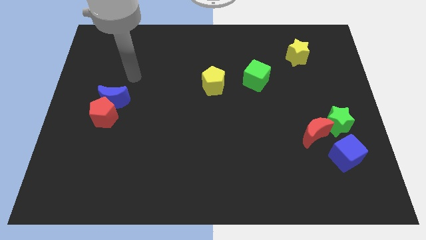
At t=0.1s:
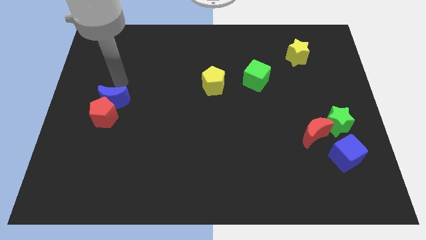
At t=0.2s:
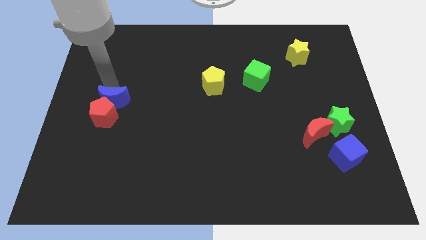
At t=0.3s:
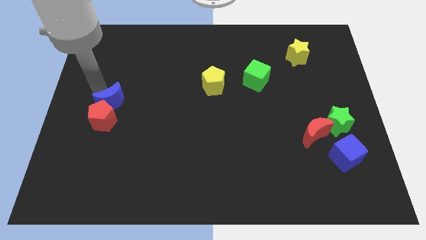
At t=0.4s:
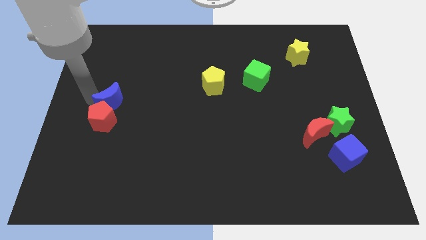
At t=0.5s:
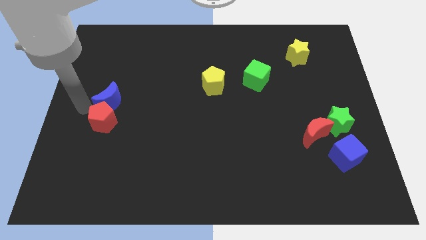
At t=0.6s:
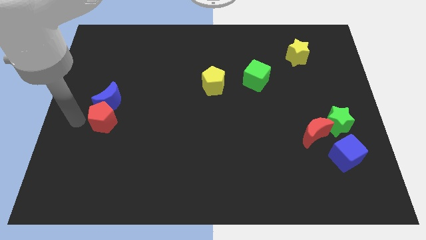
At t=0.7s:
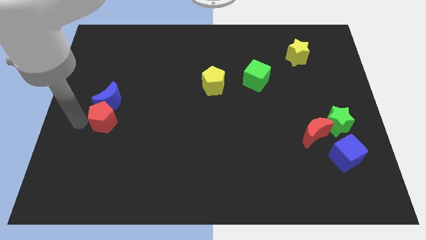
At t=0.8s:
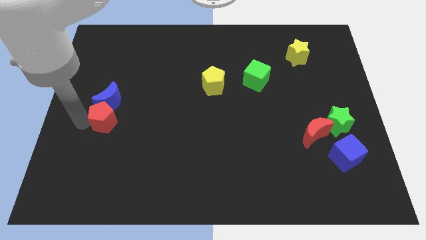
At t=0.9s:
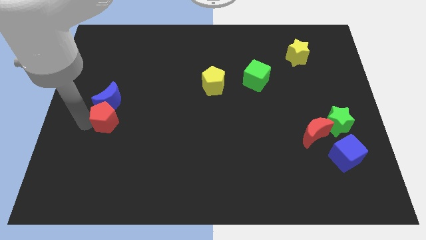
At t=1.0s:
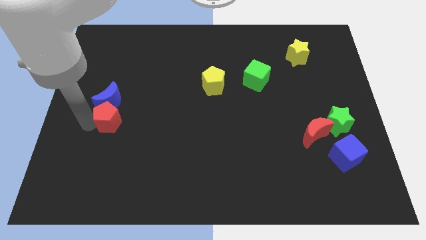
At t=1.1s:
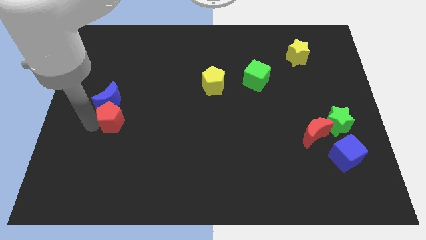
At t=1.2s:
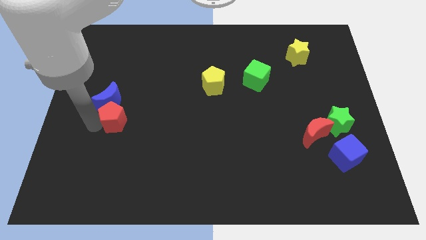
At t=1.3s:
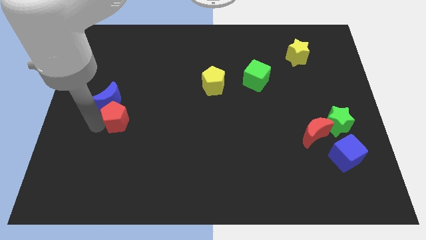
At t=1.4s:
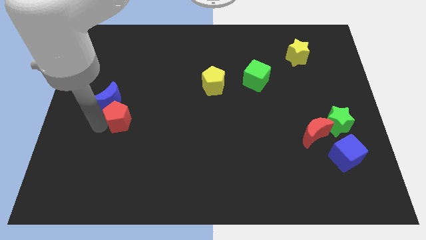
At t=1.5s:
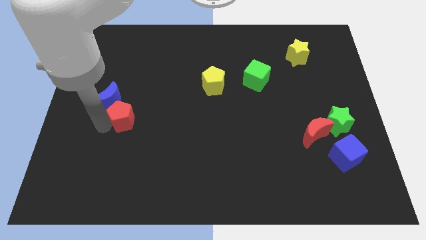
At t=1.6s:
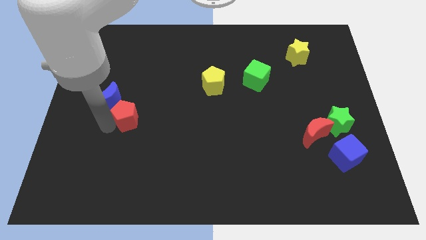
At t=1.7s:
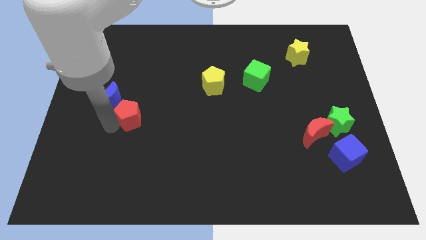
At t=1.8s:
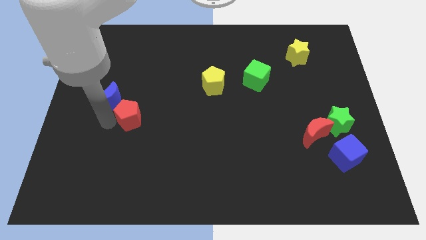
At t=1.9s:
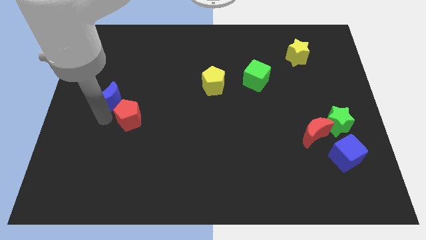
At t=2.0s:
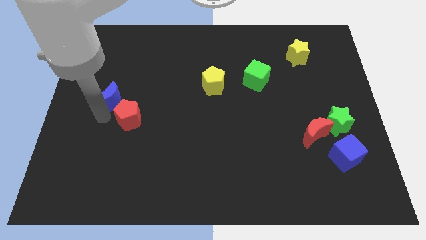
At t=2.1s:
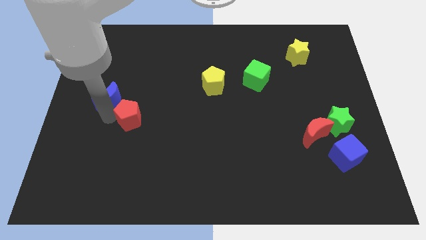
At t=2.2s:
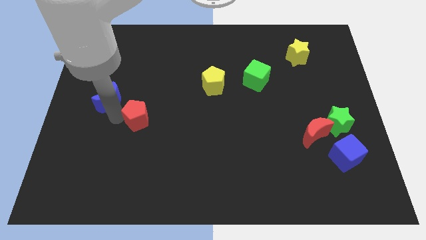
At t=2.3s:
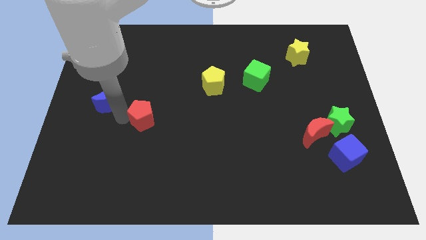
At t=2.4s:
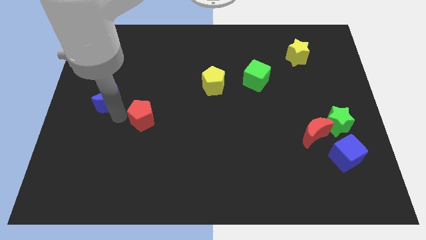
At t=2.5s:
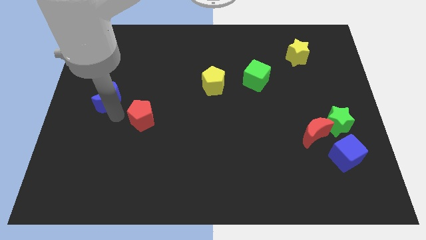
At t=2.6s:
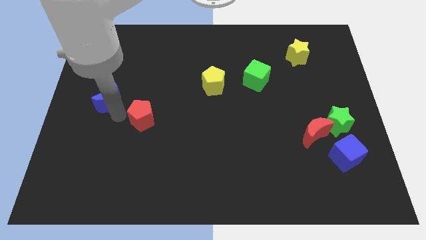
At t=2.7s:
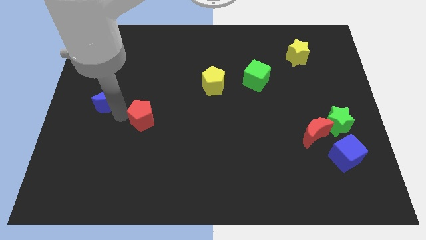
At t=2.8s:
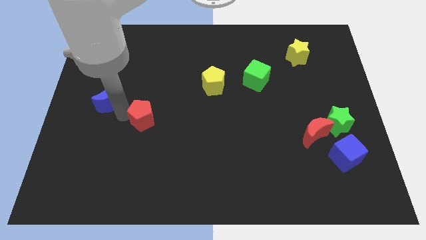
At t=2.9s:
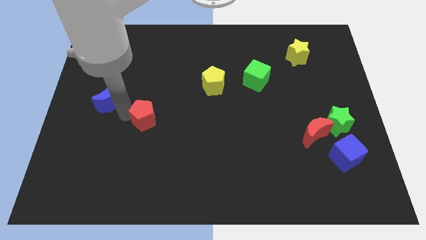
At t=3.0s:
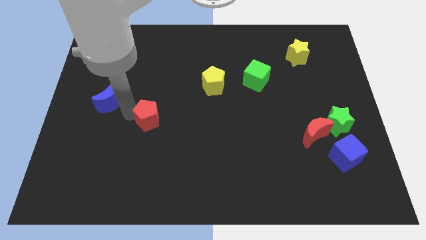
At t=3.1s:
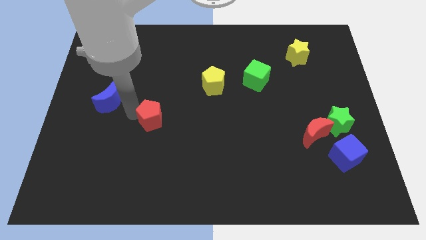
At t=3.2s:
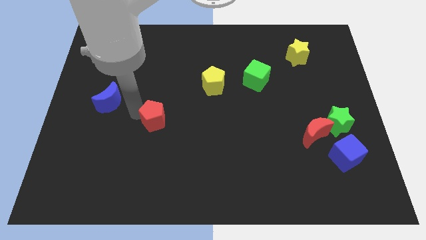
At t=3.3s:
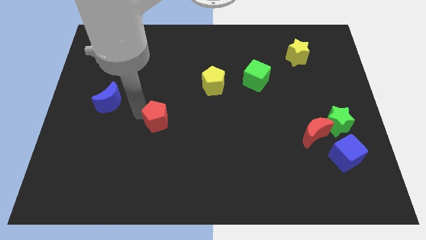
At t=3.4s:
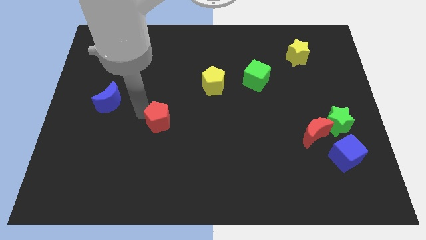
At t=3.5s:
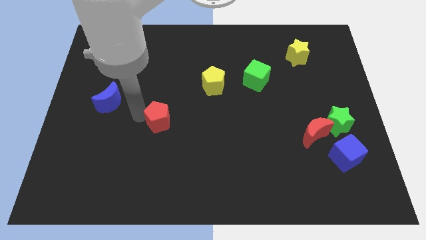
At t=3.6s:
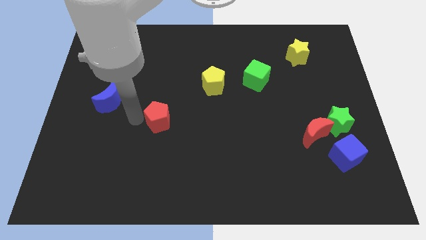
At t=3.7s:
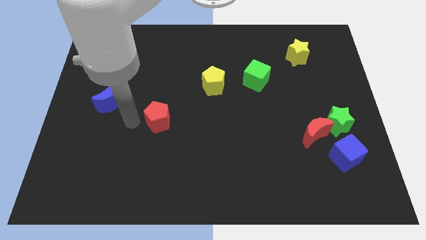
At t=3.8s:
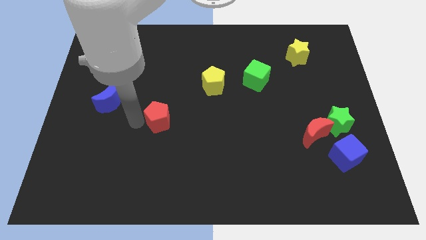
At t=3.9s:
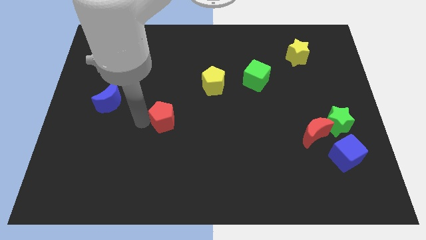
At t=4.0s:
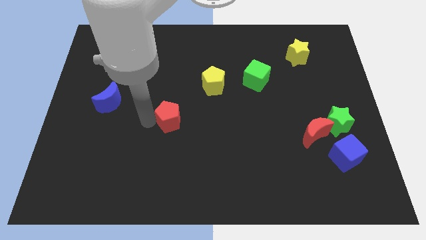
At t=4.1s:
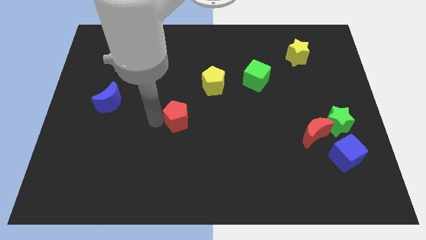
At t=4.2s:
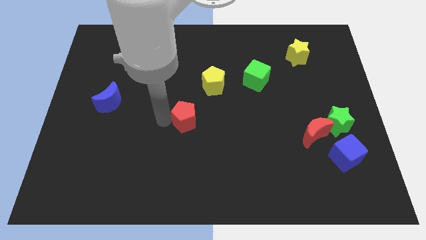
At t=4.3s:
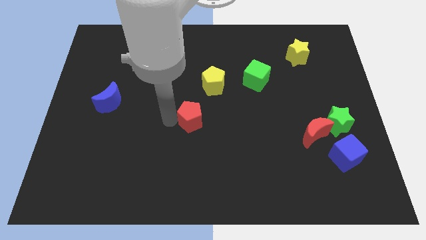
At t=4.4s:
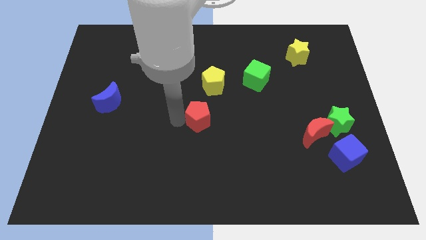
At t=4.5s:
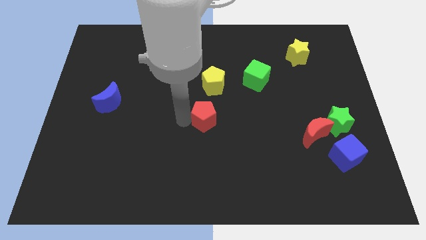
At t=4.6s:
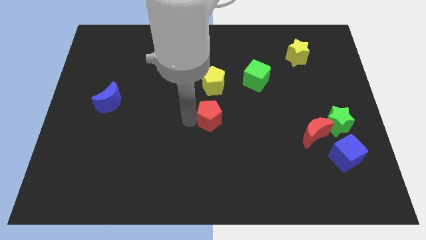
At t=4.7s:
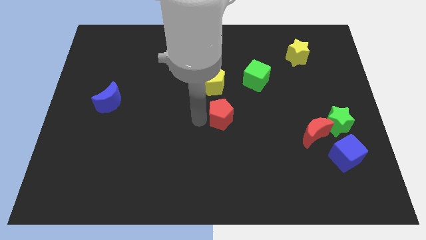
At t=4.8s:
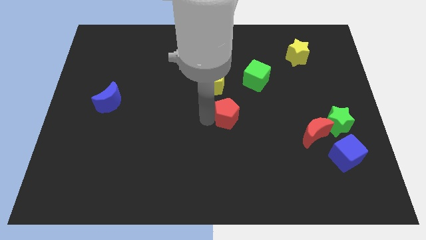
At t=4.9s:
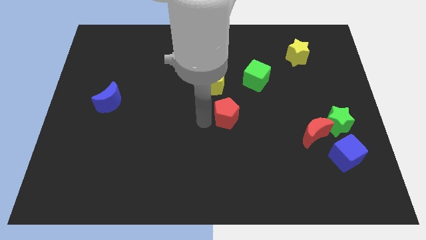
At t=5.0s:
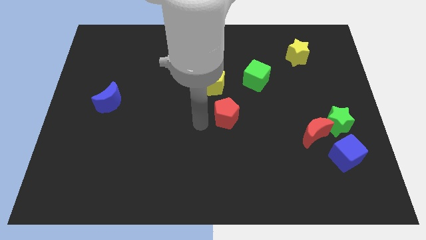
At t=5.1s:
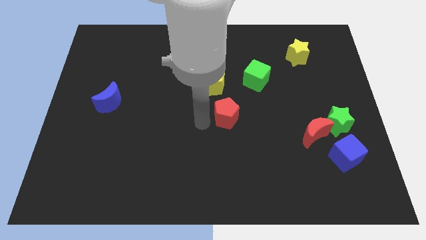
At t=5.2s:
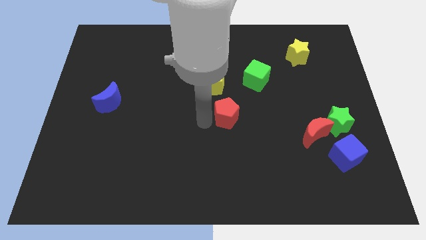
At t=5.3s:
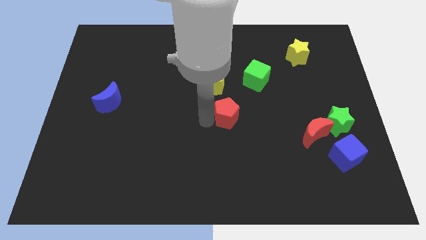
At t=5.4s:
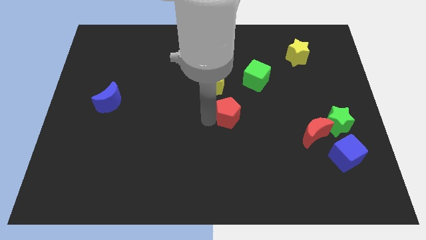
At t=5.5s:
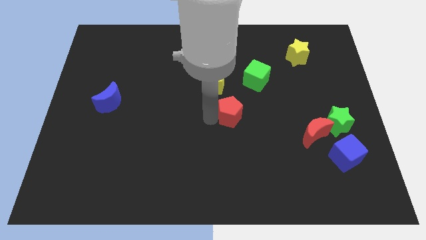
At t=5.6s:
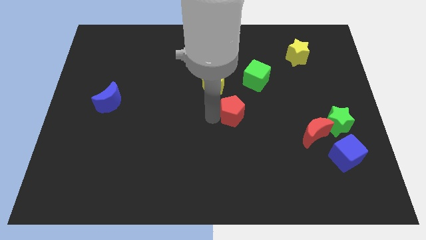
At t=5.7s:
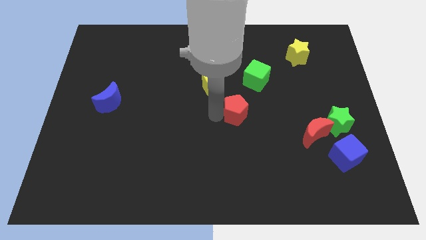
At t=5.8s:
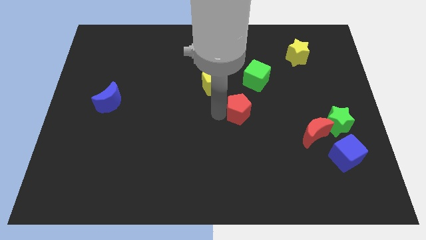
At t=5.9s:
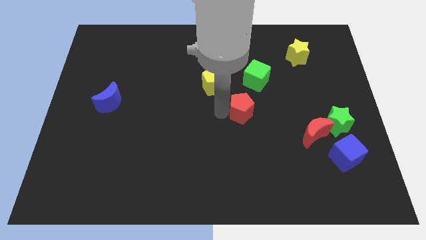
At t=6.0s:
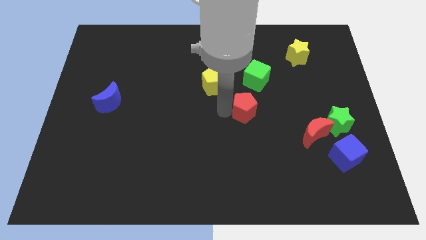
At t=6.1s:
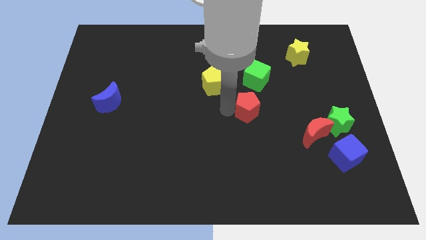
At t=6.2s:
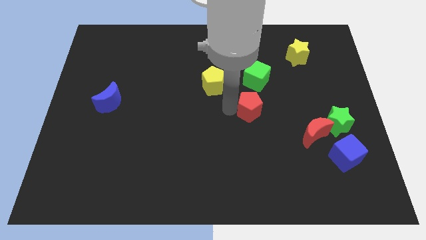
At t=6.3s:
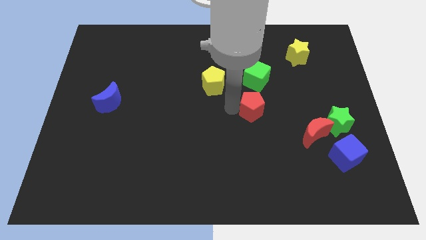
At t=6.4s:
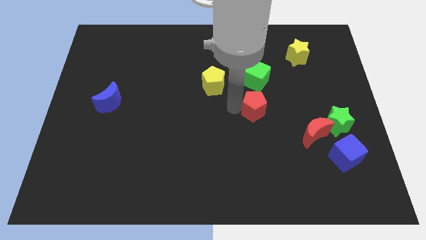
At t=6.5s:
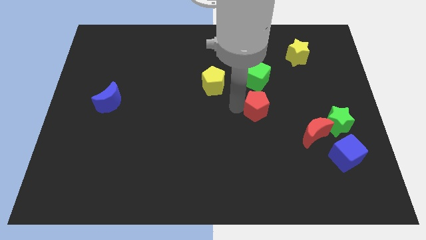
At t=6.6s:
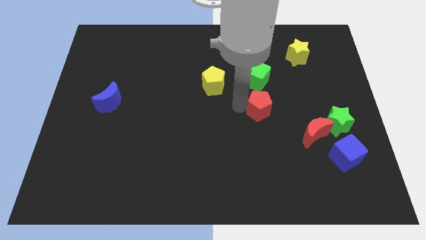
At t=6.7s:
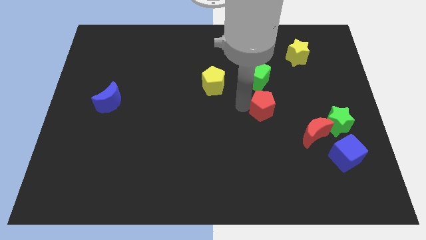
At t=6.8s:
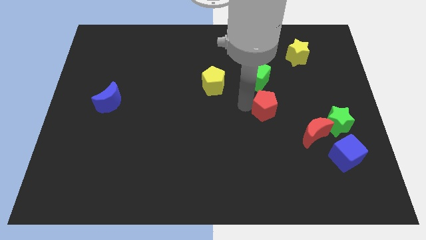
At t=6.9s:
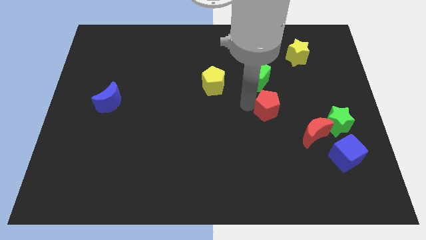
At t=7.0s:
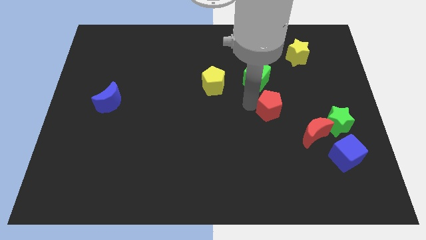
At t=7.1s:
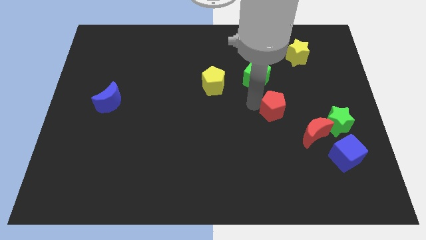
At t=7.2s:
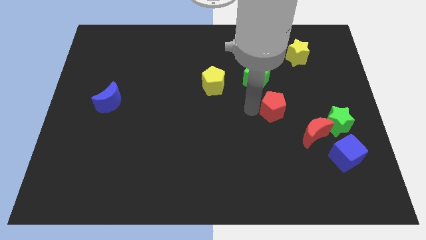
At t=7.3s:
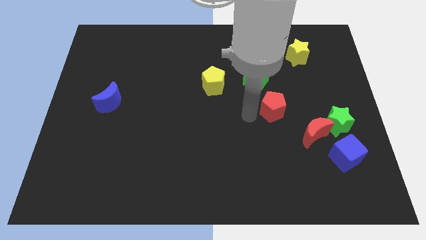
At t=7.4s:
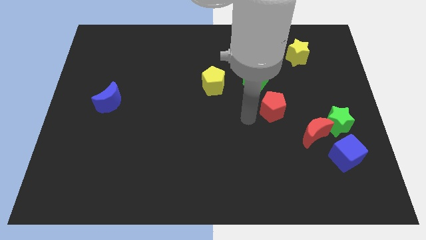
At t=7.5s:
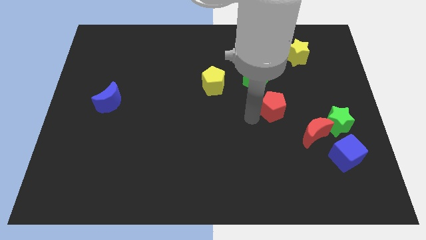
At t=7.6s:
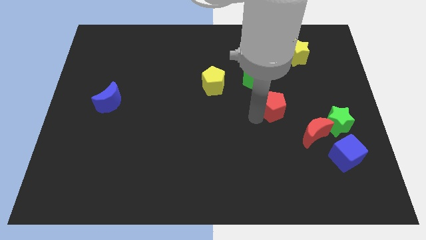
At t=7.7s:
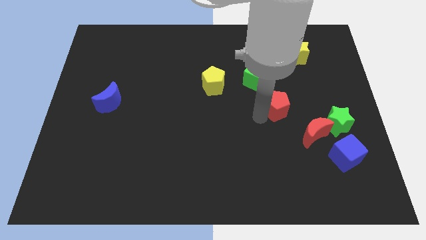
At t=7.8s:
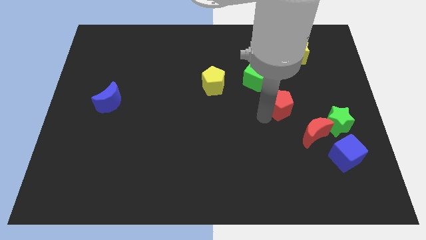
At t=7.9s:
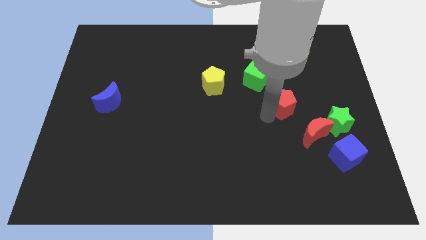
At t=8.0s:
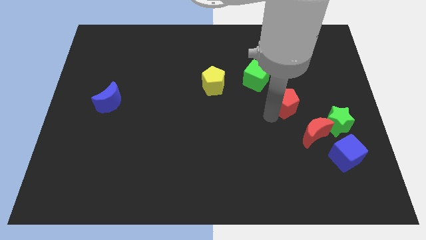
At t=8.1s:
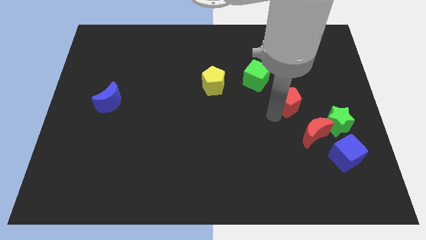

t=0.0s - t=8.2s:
push the red pentagon to the top side of the red moon
